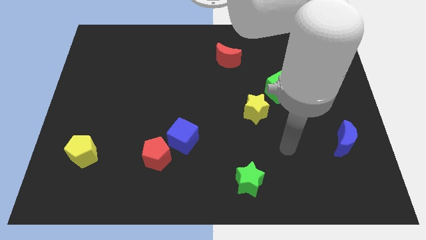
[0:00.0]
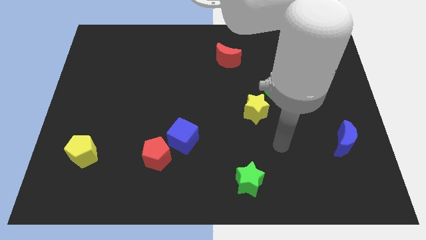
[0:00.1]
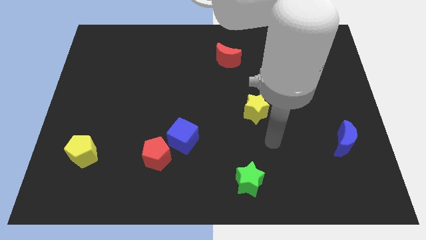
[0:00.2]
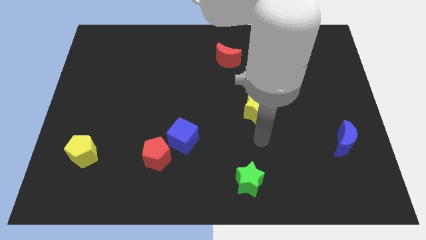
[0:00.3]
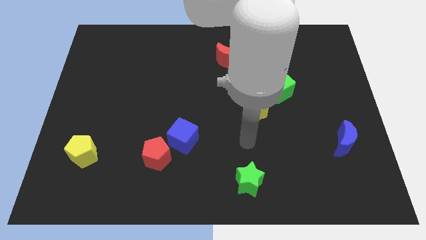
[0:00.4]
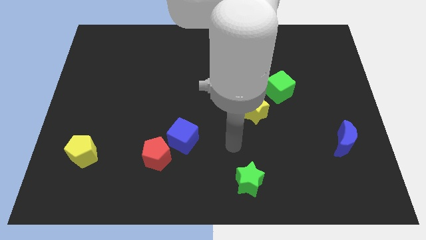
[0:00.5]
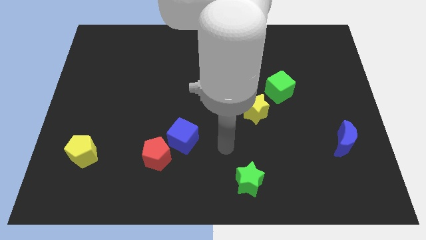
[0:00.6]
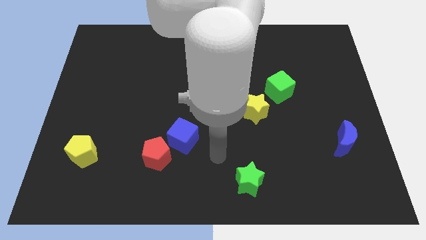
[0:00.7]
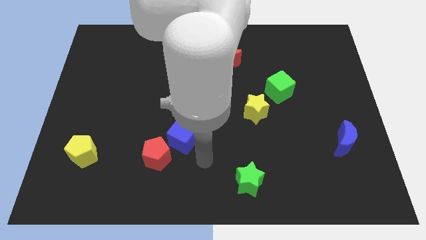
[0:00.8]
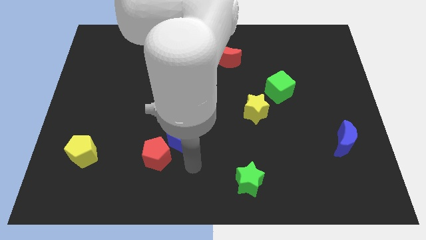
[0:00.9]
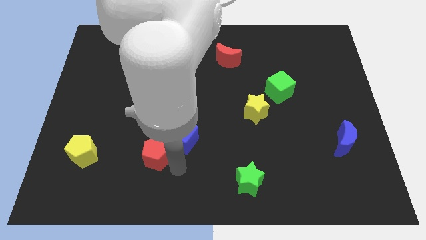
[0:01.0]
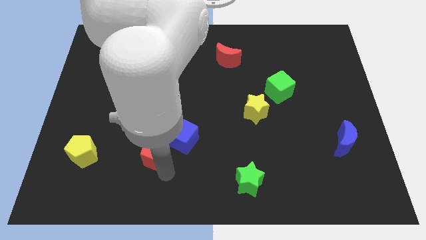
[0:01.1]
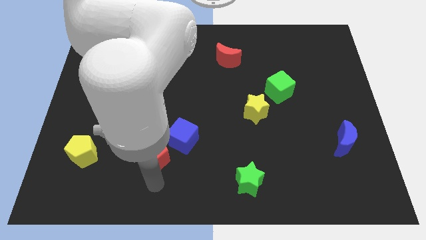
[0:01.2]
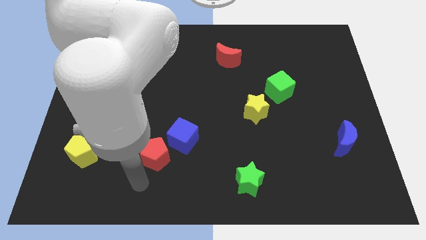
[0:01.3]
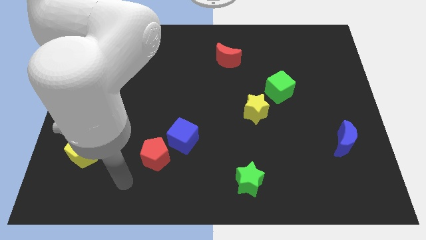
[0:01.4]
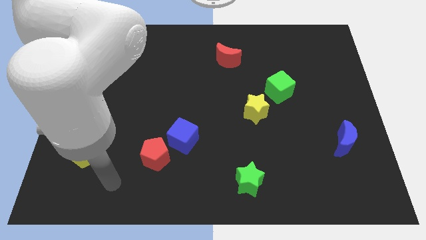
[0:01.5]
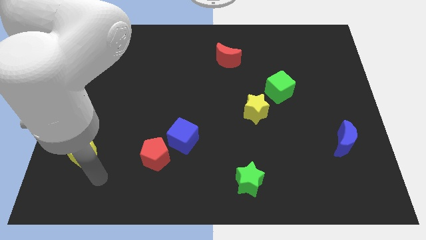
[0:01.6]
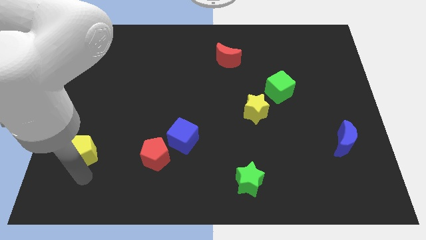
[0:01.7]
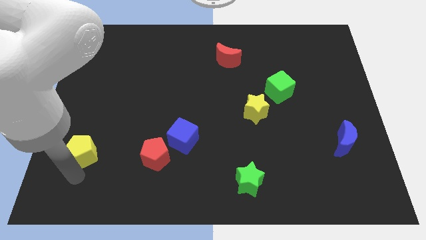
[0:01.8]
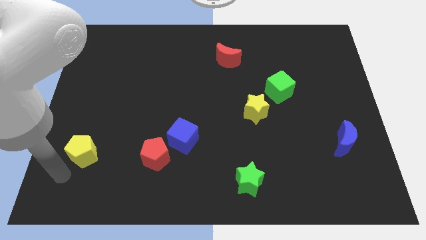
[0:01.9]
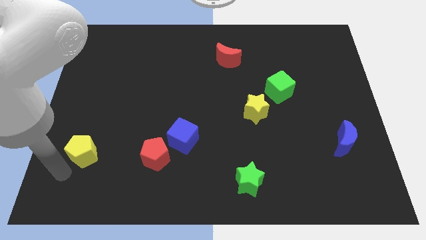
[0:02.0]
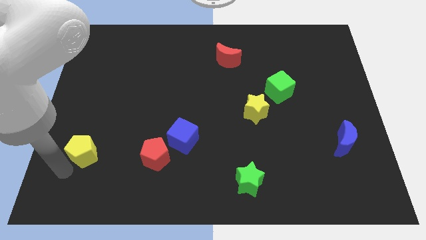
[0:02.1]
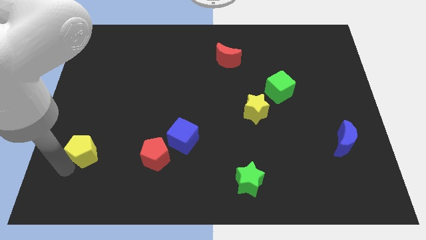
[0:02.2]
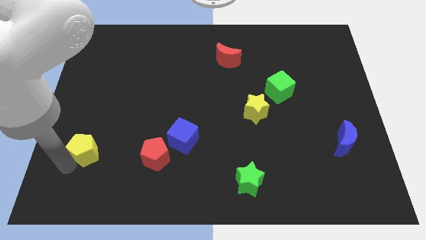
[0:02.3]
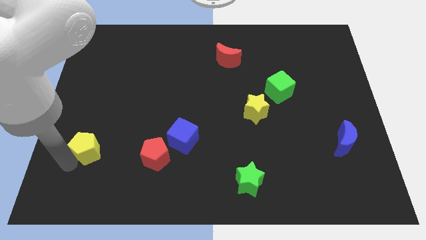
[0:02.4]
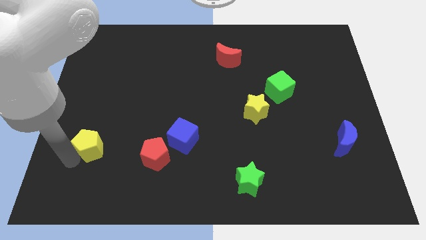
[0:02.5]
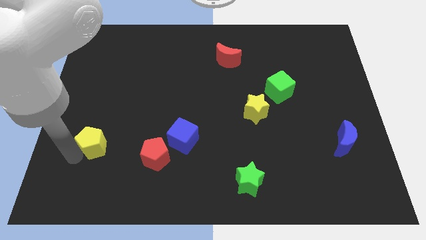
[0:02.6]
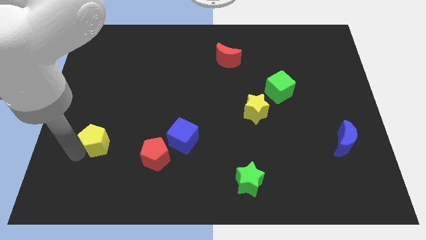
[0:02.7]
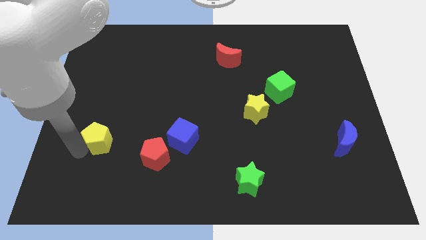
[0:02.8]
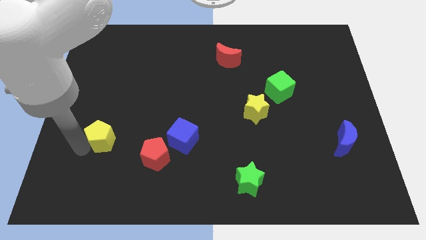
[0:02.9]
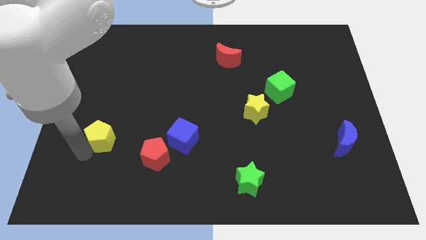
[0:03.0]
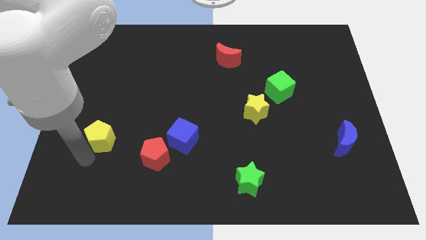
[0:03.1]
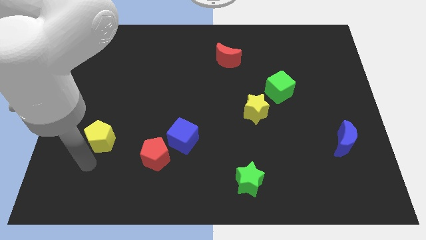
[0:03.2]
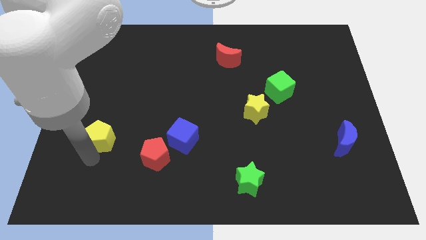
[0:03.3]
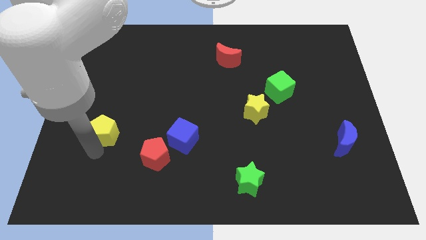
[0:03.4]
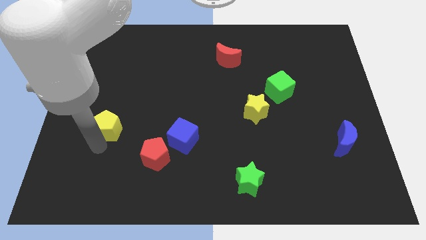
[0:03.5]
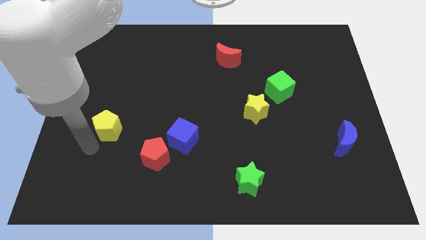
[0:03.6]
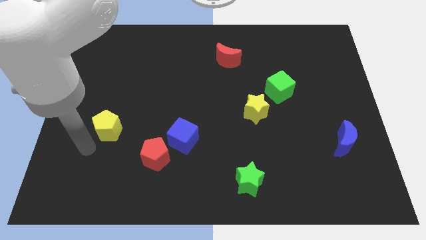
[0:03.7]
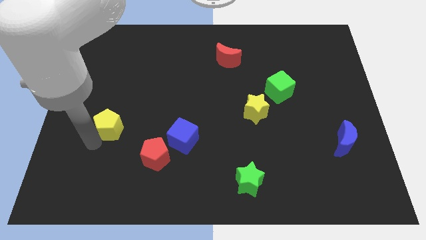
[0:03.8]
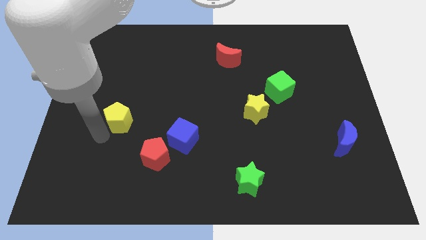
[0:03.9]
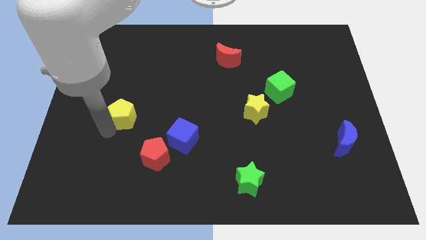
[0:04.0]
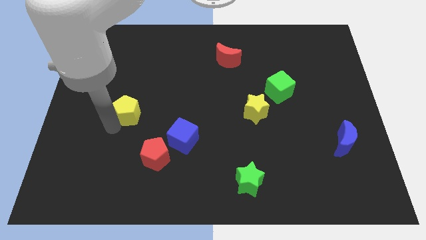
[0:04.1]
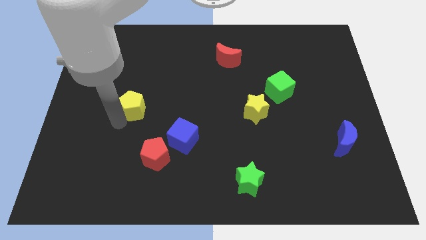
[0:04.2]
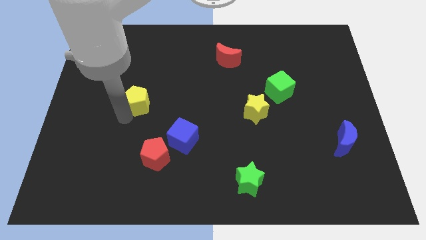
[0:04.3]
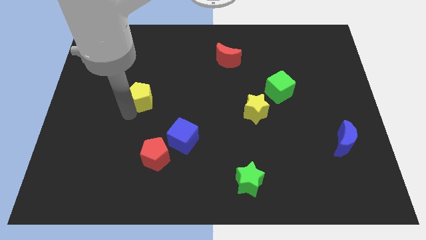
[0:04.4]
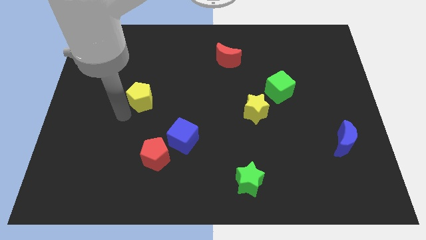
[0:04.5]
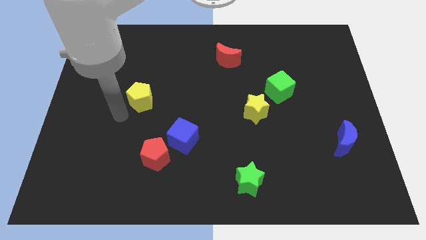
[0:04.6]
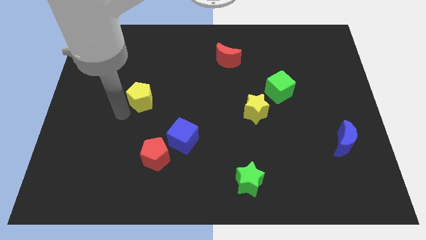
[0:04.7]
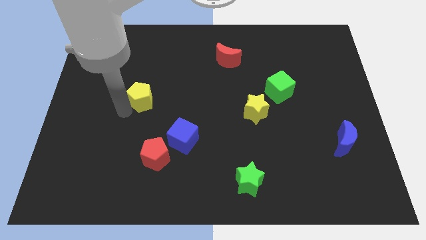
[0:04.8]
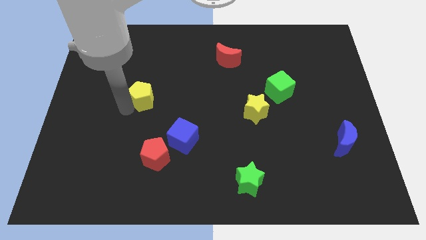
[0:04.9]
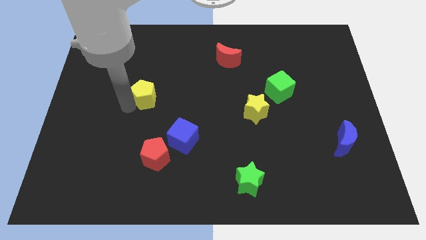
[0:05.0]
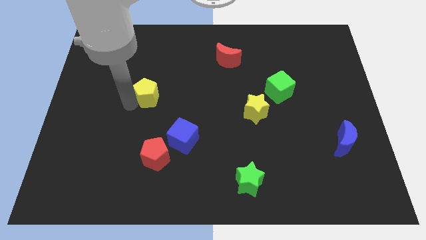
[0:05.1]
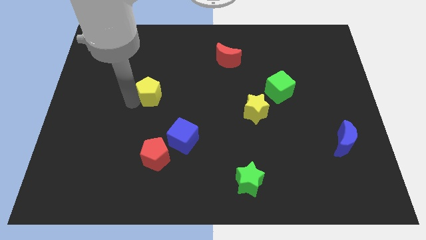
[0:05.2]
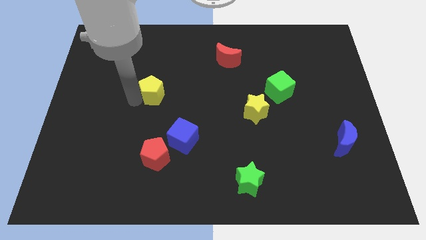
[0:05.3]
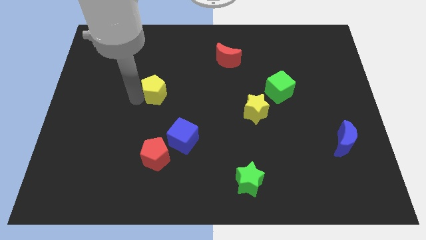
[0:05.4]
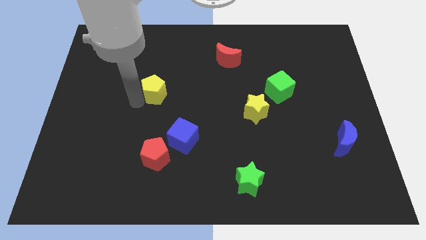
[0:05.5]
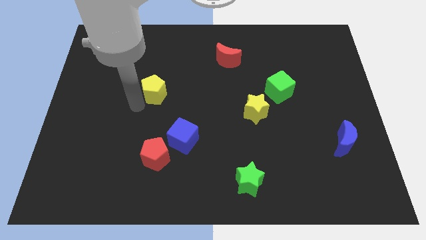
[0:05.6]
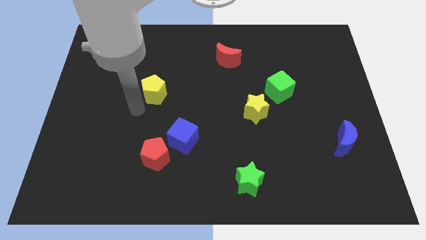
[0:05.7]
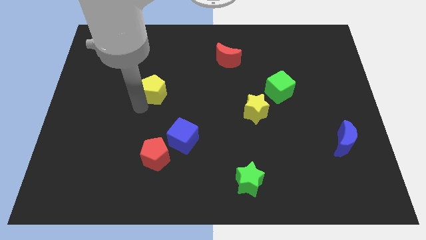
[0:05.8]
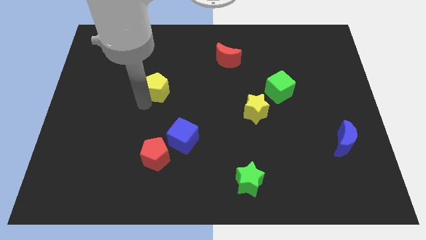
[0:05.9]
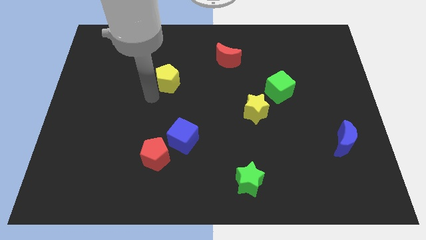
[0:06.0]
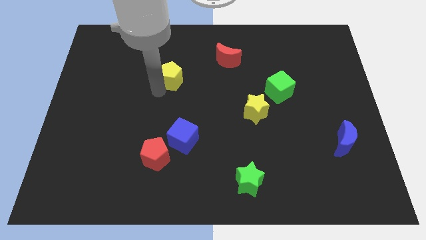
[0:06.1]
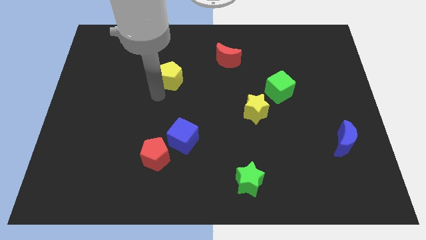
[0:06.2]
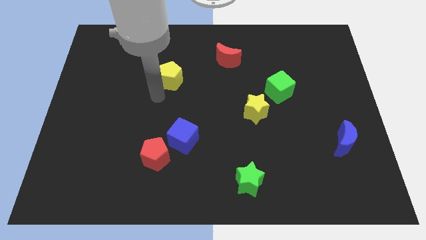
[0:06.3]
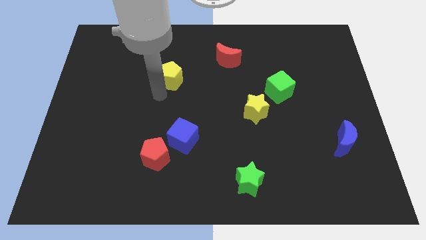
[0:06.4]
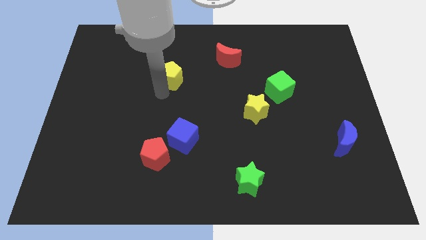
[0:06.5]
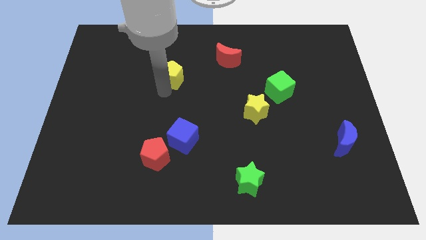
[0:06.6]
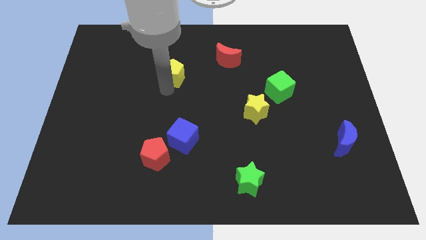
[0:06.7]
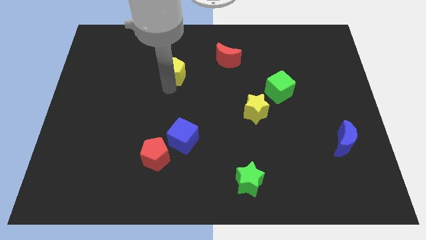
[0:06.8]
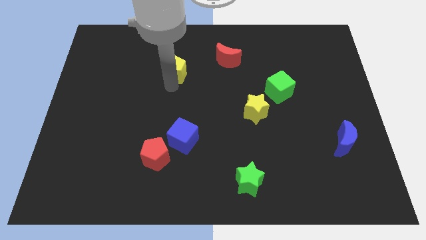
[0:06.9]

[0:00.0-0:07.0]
move the yellow pentagon to the left side of the red moon

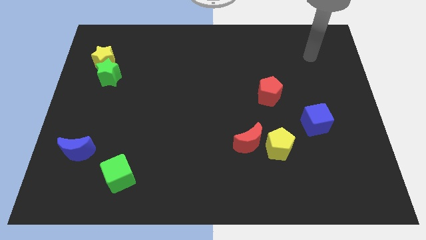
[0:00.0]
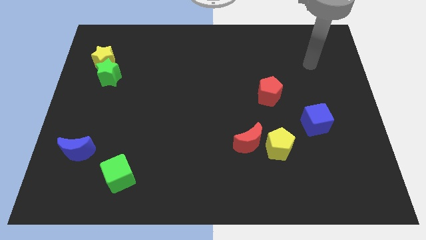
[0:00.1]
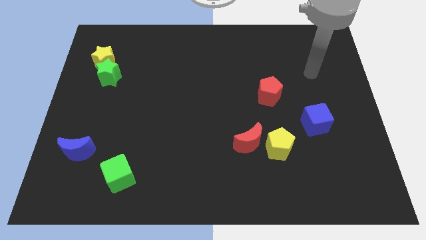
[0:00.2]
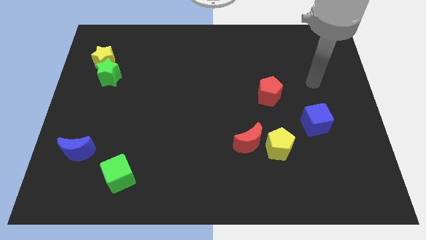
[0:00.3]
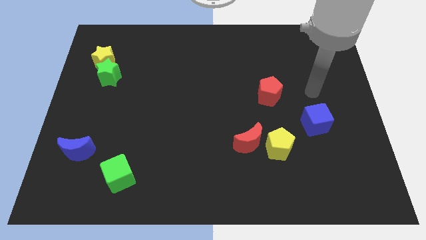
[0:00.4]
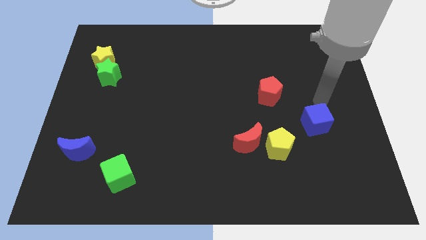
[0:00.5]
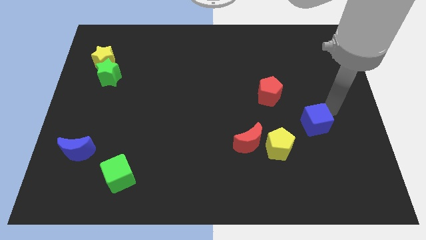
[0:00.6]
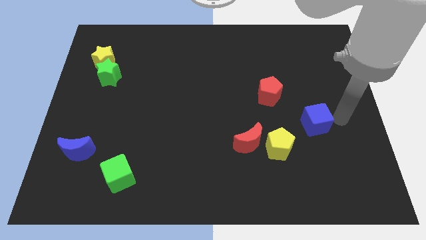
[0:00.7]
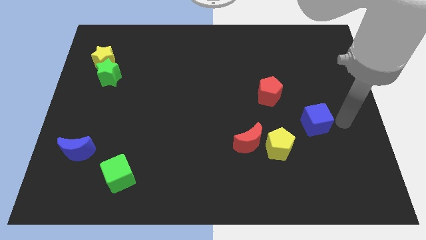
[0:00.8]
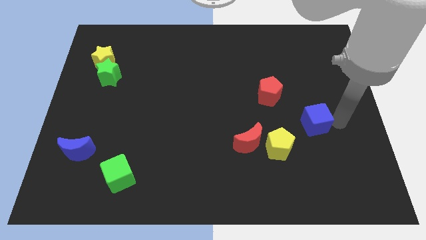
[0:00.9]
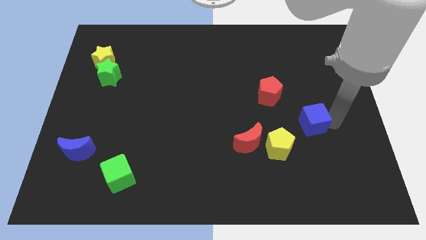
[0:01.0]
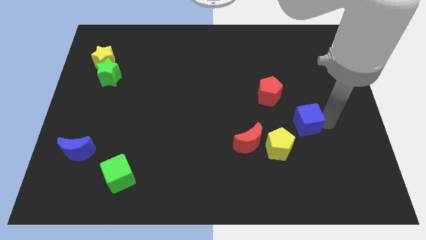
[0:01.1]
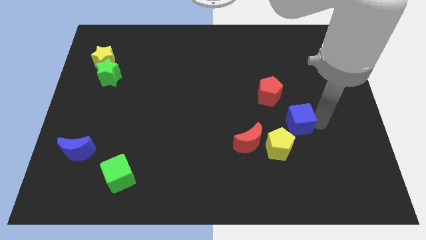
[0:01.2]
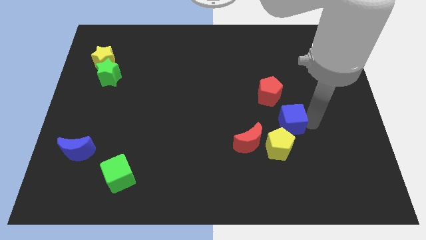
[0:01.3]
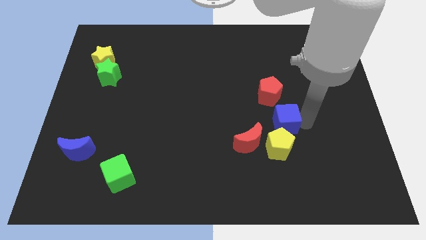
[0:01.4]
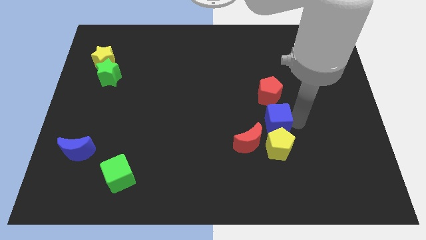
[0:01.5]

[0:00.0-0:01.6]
put the blue cube diagonally up and to the left of the yellow pentagon
